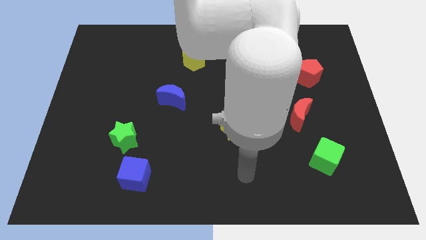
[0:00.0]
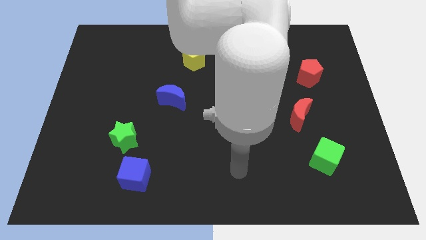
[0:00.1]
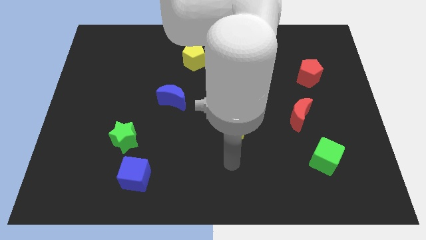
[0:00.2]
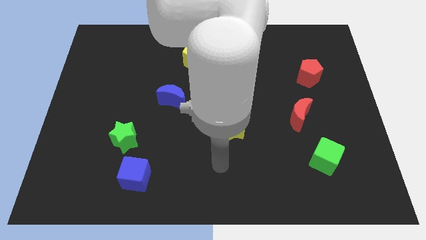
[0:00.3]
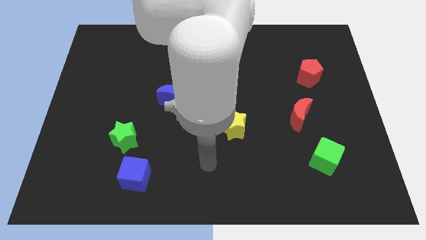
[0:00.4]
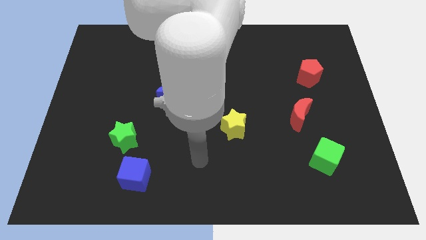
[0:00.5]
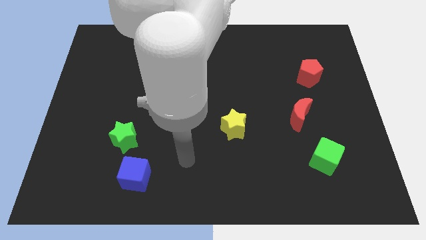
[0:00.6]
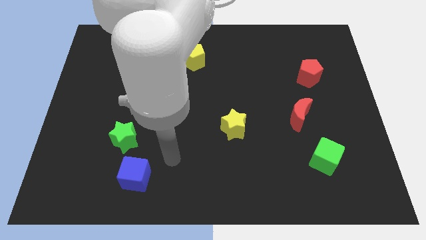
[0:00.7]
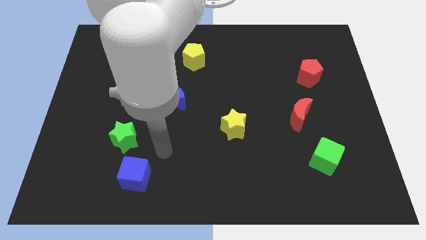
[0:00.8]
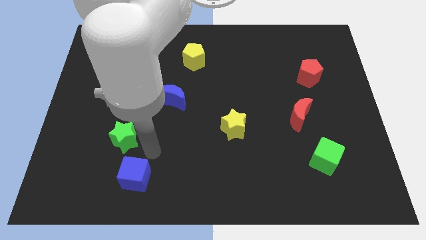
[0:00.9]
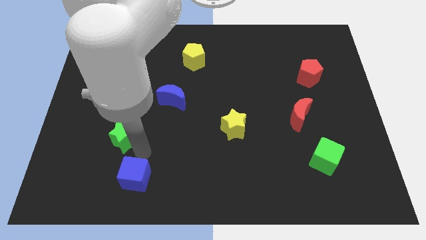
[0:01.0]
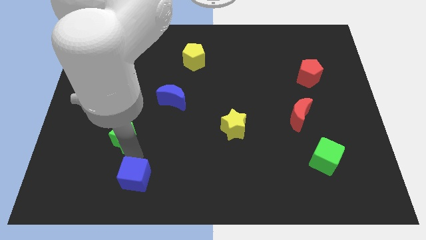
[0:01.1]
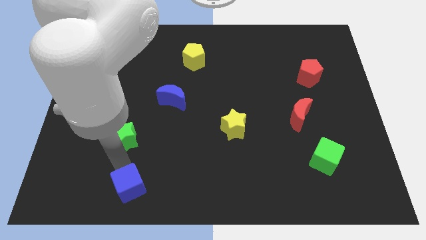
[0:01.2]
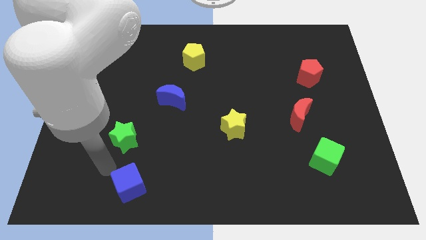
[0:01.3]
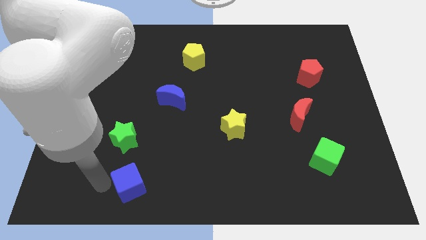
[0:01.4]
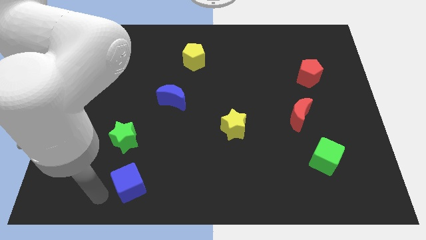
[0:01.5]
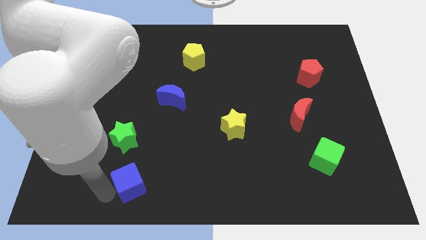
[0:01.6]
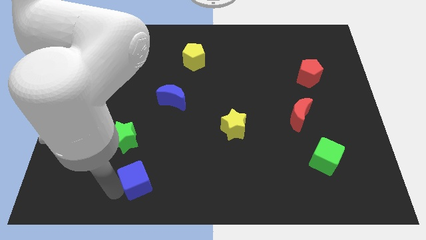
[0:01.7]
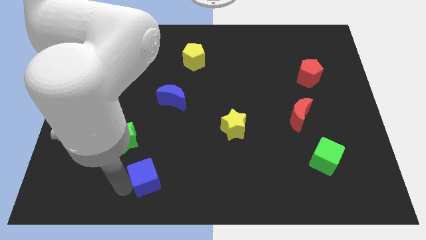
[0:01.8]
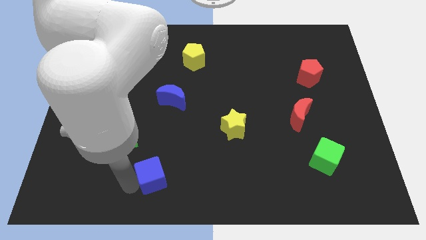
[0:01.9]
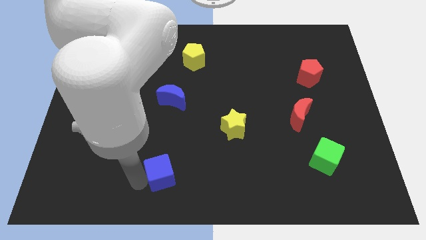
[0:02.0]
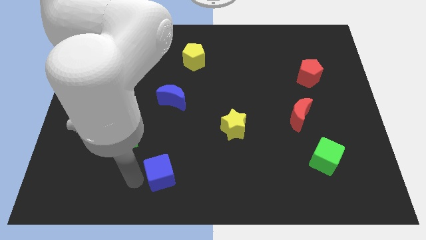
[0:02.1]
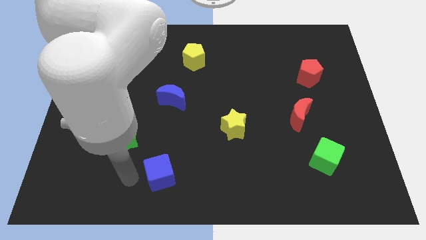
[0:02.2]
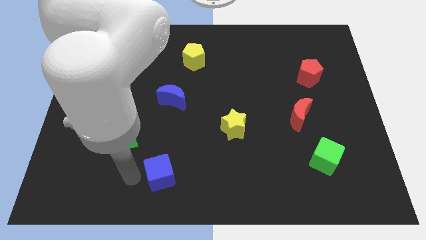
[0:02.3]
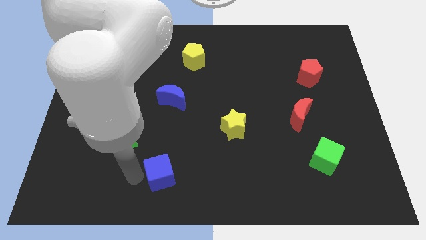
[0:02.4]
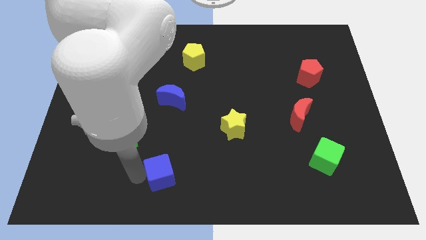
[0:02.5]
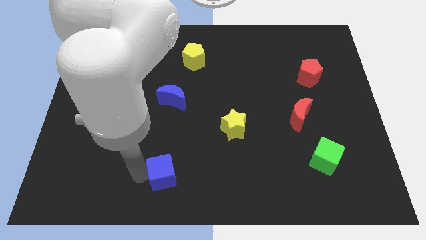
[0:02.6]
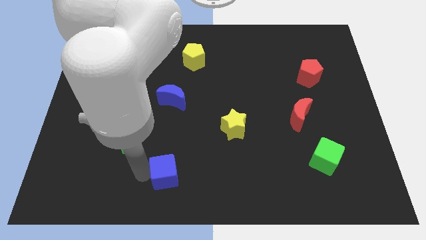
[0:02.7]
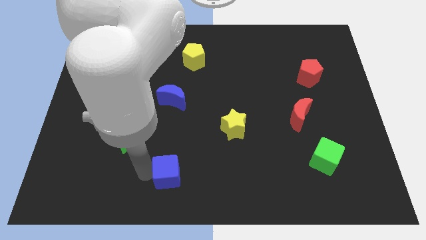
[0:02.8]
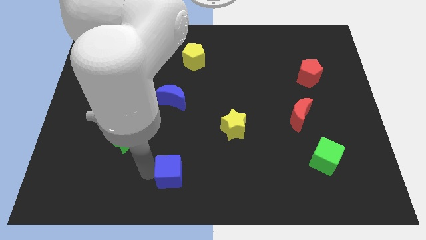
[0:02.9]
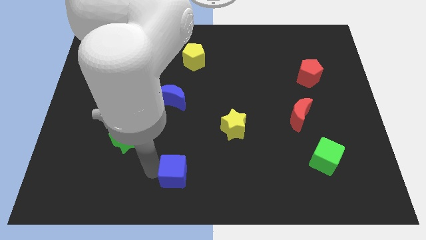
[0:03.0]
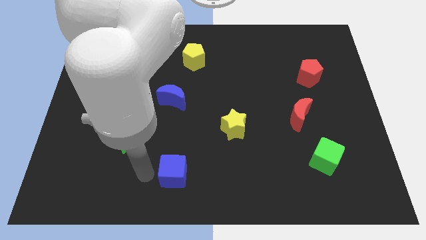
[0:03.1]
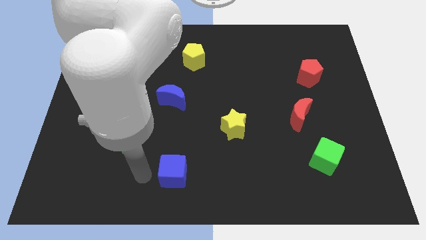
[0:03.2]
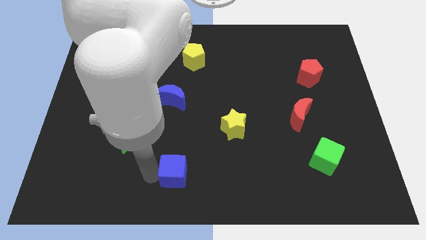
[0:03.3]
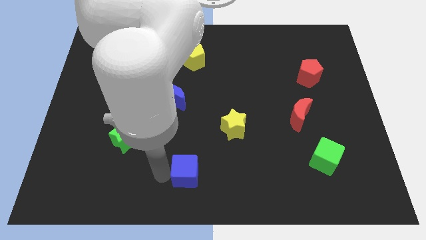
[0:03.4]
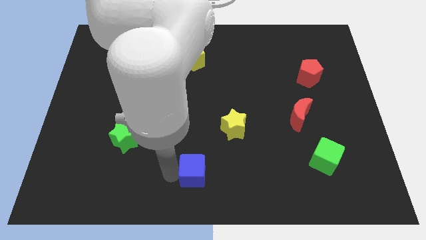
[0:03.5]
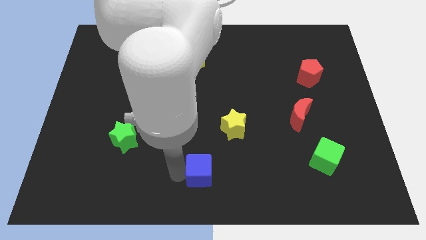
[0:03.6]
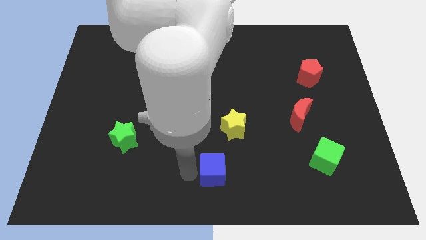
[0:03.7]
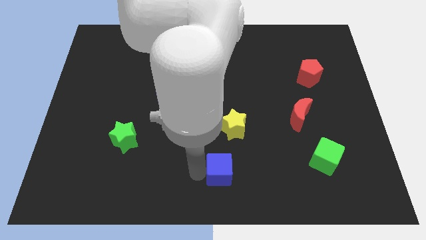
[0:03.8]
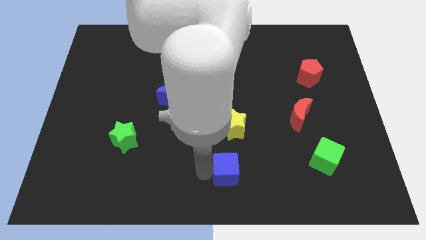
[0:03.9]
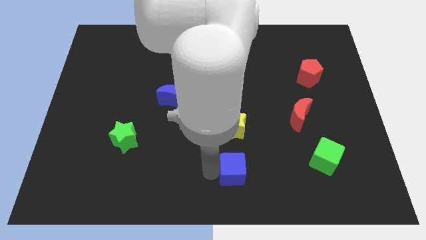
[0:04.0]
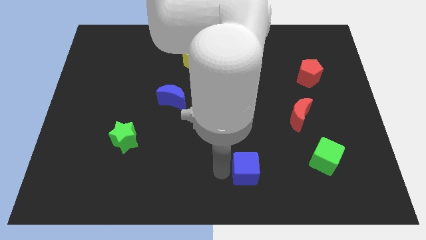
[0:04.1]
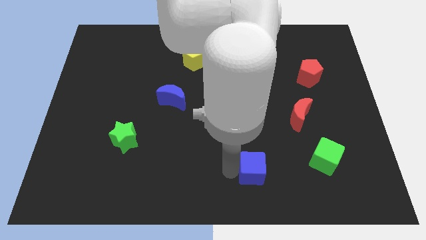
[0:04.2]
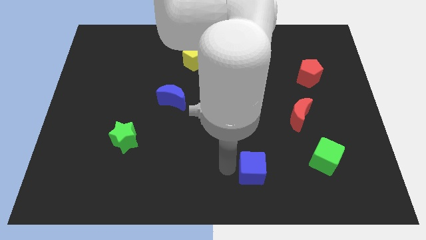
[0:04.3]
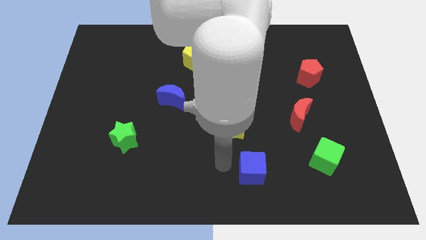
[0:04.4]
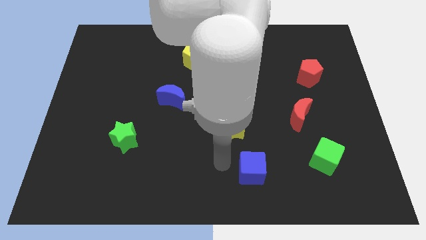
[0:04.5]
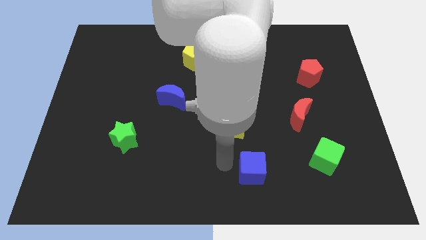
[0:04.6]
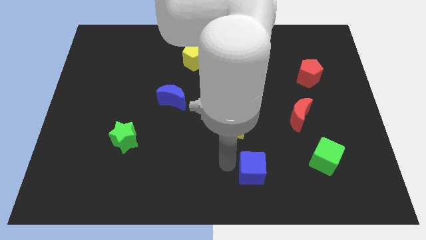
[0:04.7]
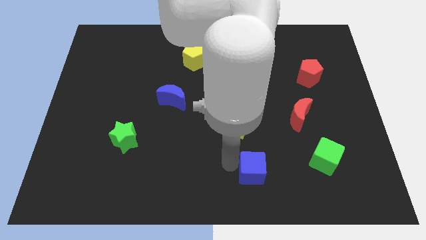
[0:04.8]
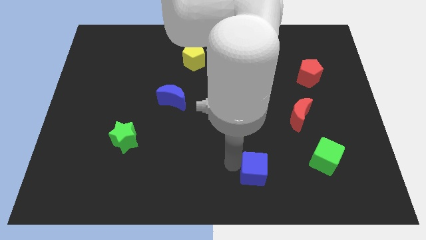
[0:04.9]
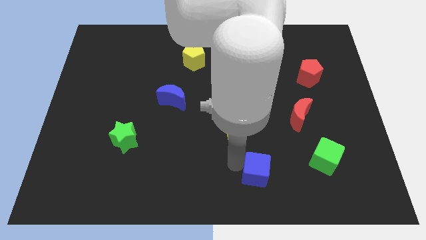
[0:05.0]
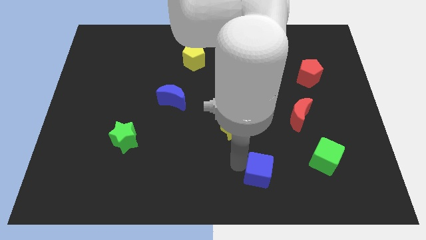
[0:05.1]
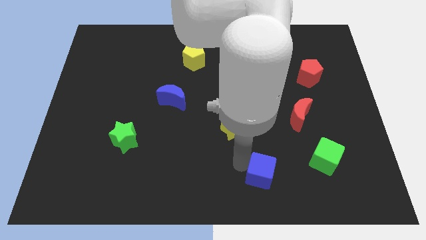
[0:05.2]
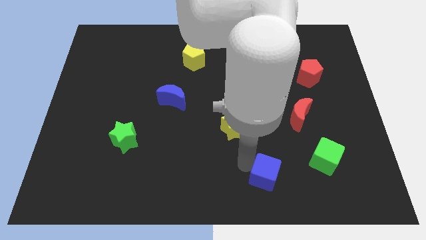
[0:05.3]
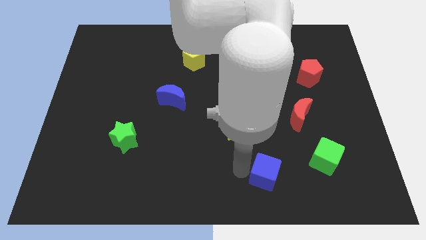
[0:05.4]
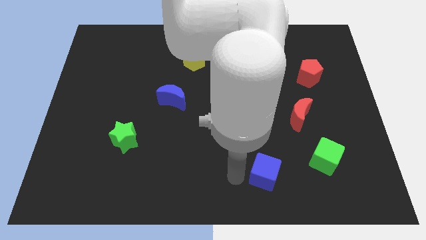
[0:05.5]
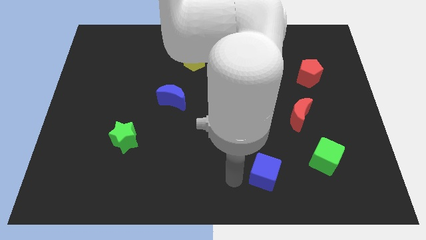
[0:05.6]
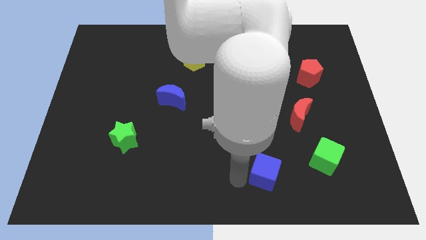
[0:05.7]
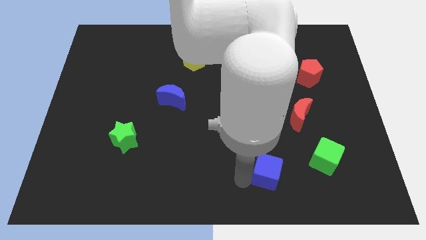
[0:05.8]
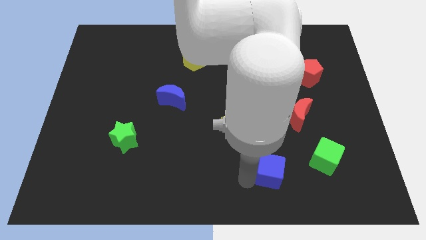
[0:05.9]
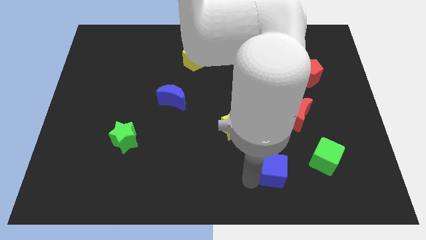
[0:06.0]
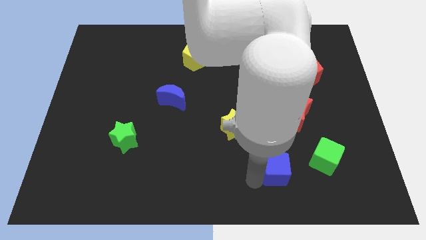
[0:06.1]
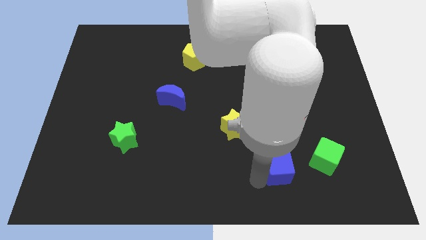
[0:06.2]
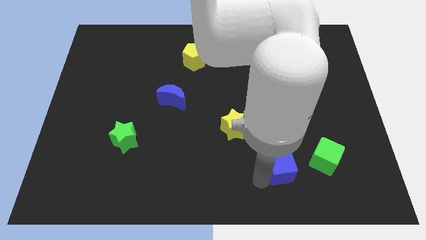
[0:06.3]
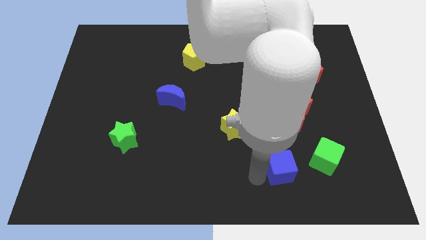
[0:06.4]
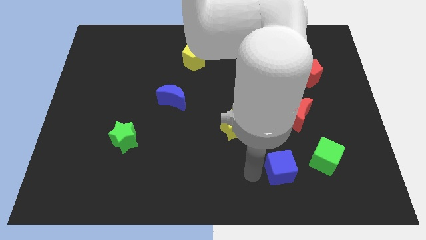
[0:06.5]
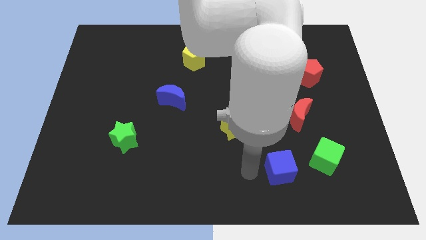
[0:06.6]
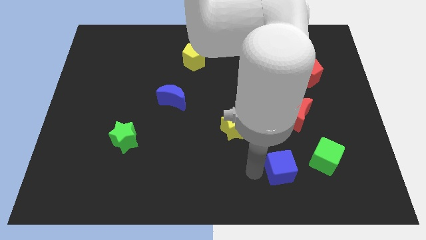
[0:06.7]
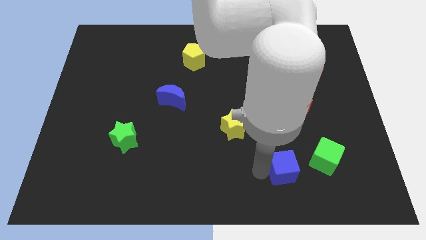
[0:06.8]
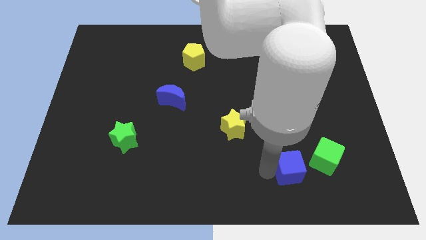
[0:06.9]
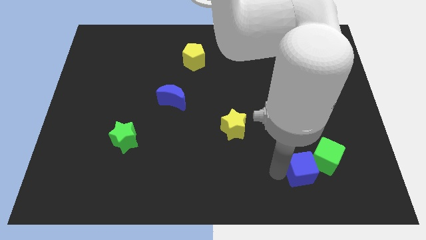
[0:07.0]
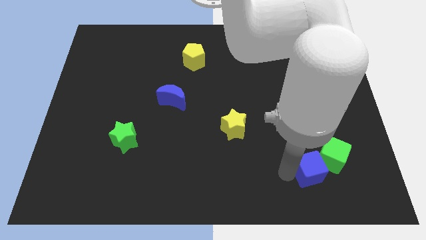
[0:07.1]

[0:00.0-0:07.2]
move the blue cube next to the green cube

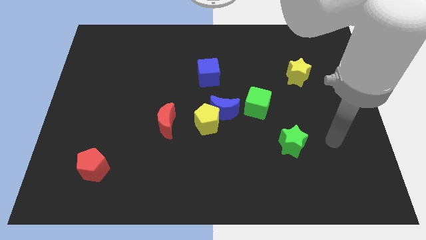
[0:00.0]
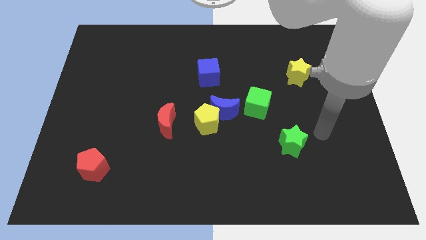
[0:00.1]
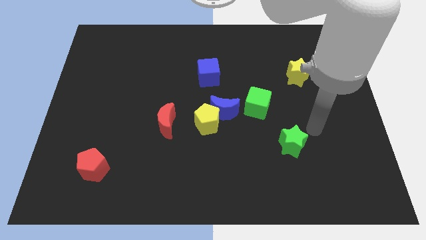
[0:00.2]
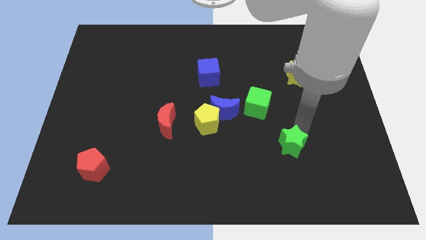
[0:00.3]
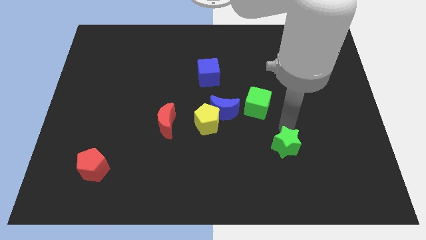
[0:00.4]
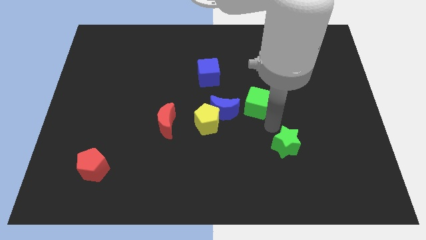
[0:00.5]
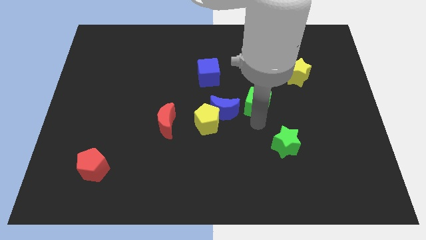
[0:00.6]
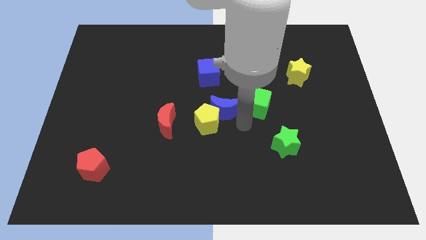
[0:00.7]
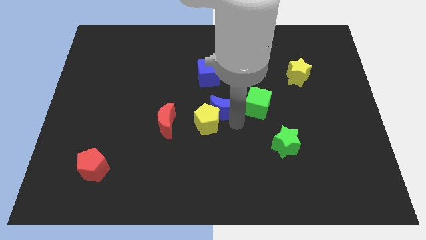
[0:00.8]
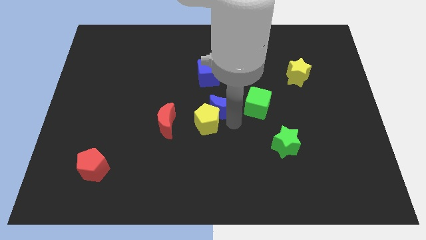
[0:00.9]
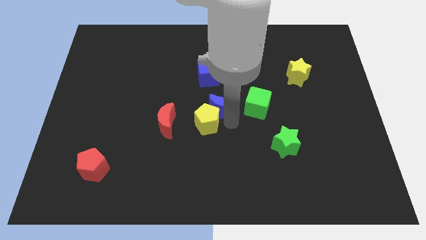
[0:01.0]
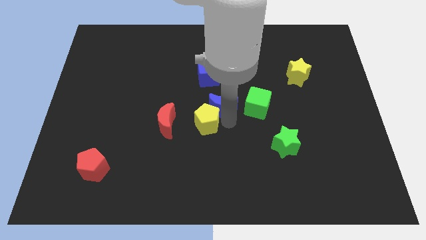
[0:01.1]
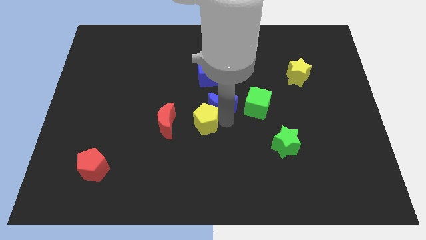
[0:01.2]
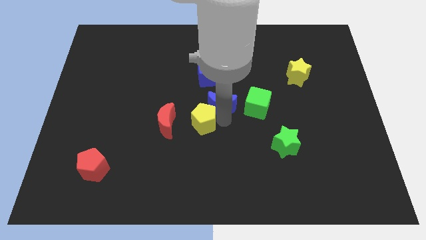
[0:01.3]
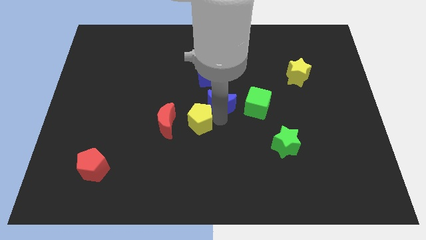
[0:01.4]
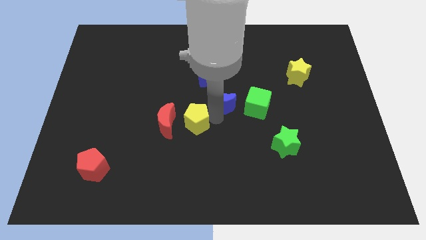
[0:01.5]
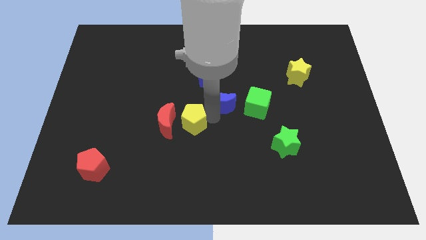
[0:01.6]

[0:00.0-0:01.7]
move the yellow pentagon to the red moon
